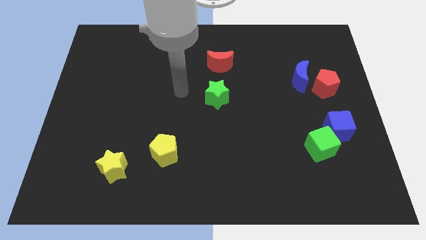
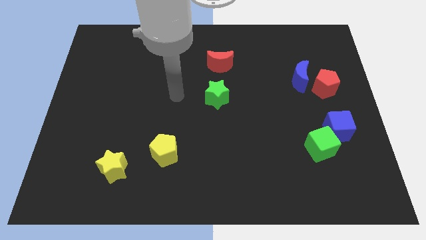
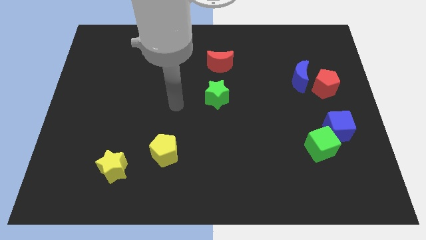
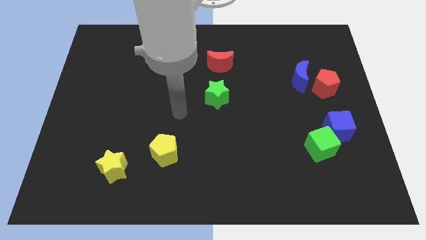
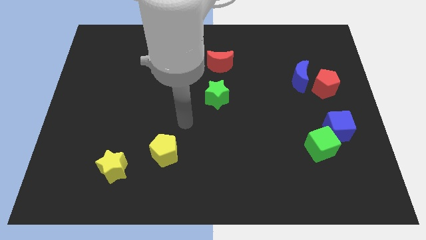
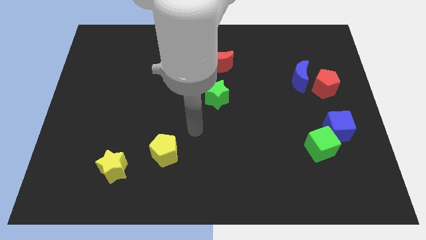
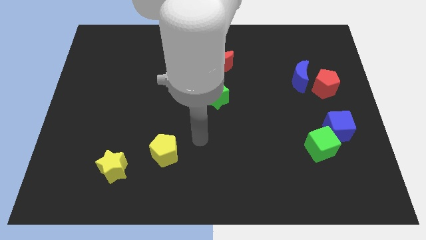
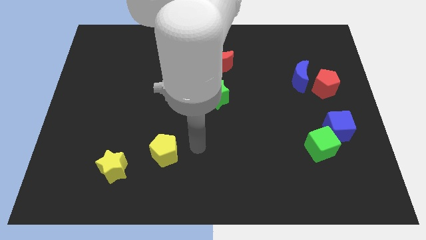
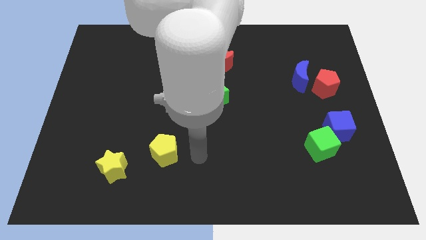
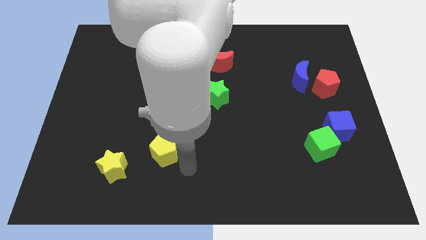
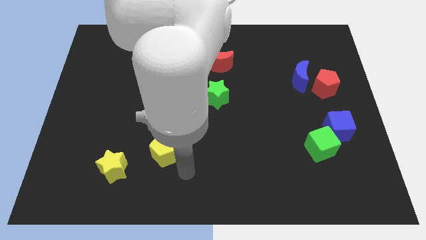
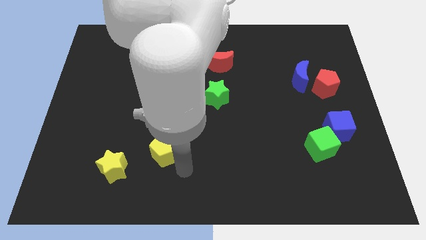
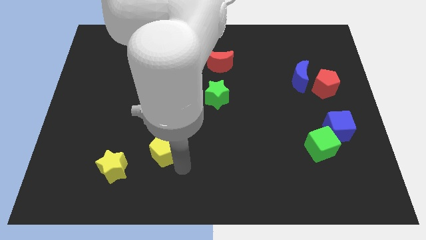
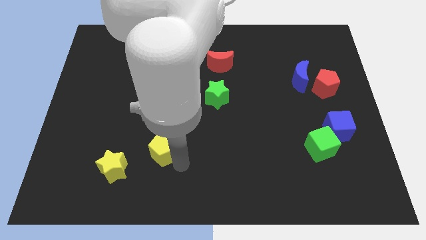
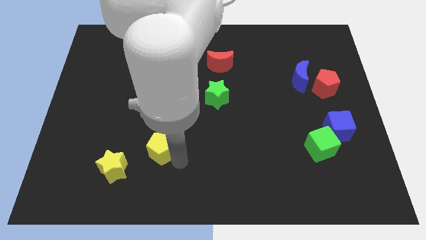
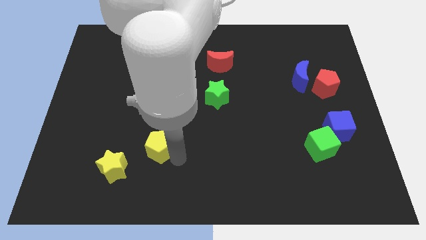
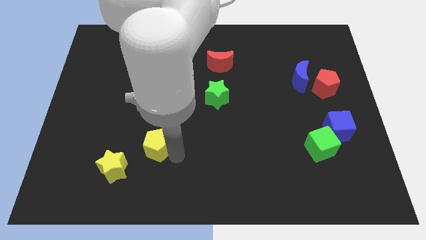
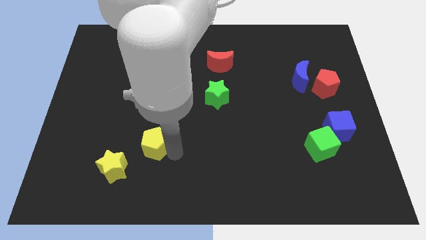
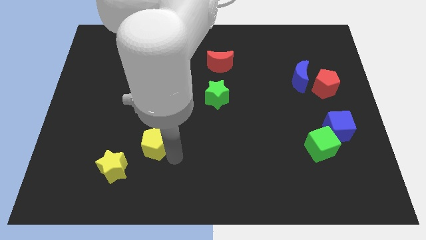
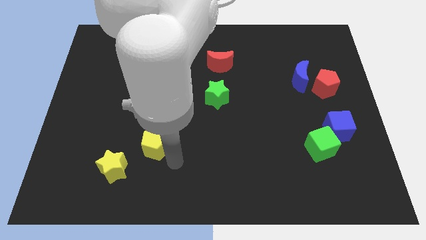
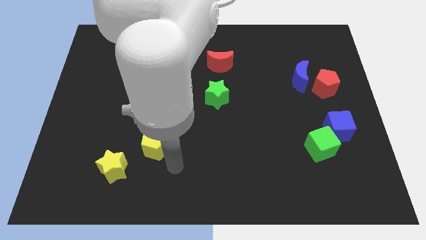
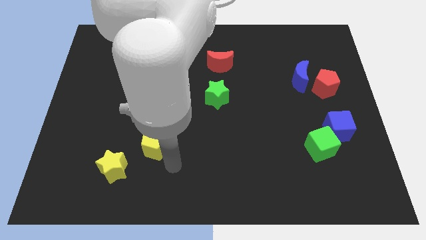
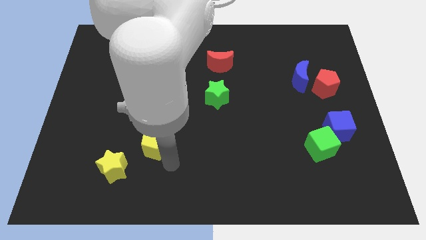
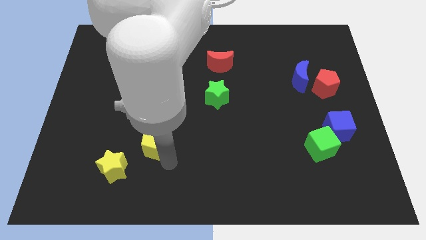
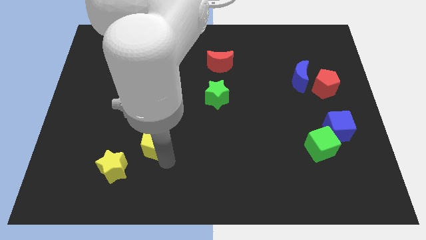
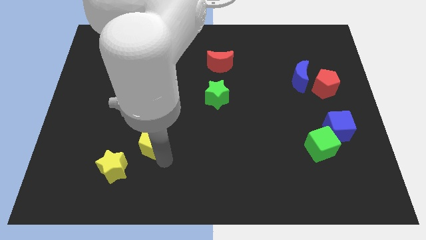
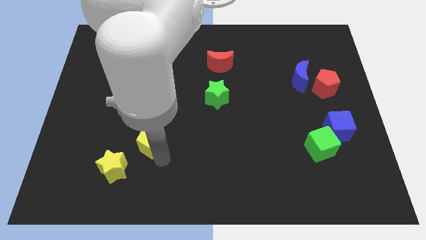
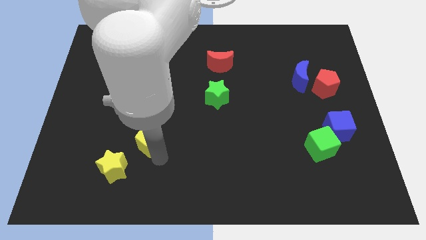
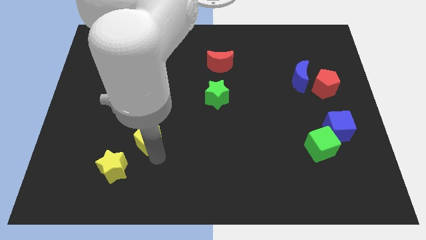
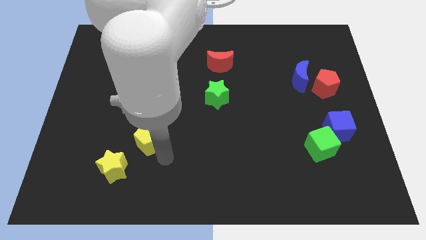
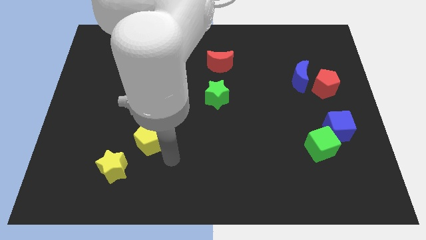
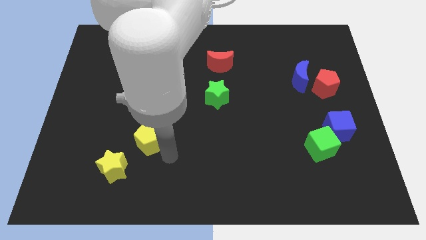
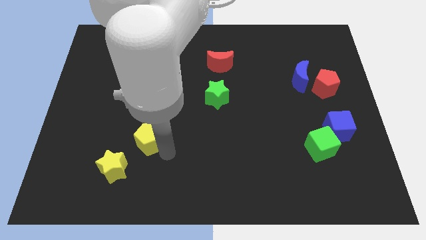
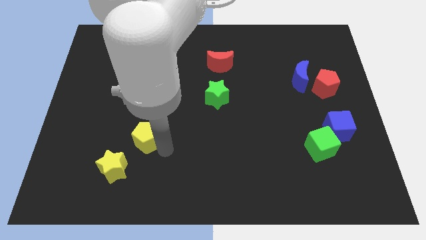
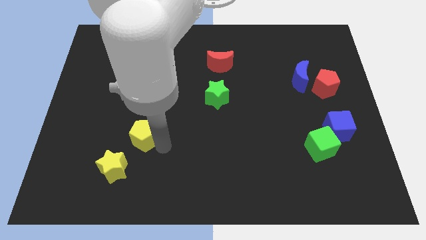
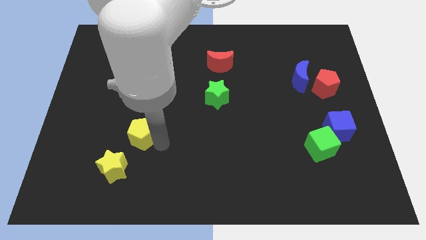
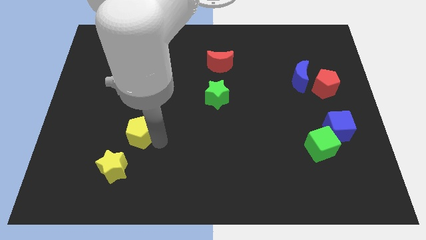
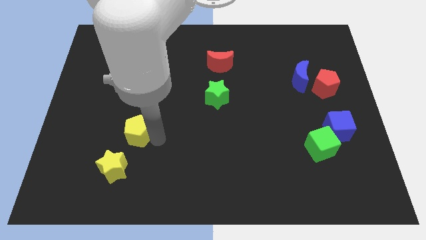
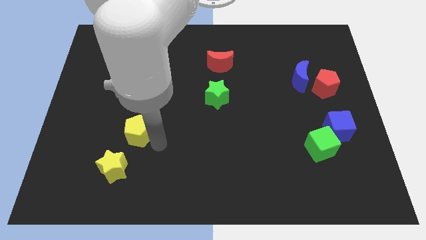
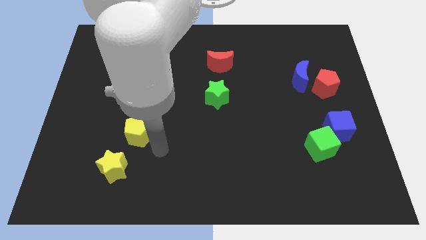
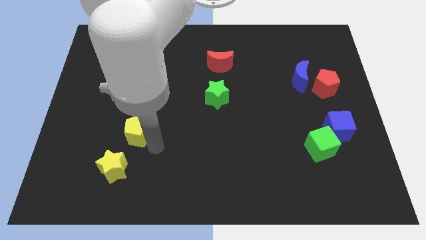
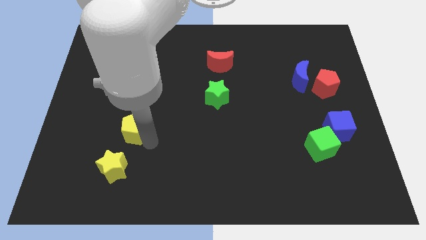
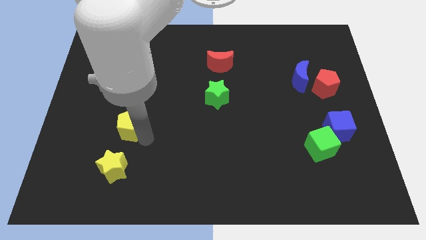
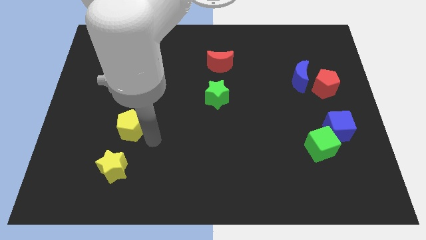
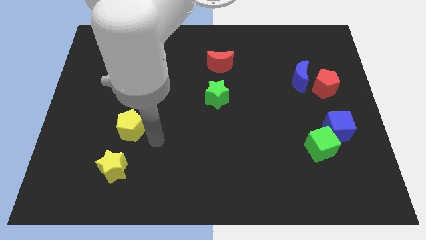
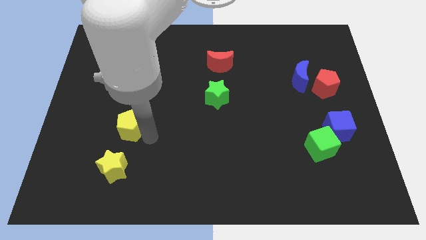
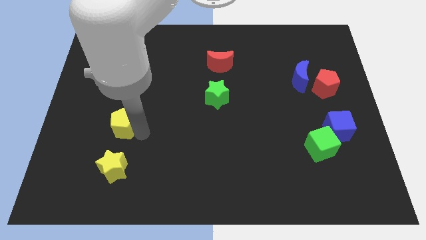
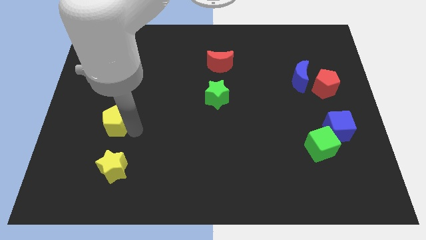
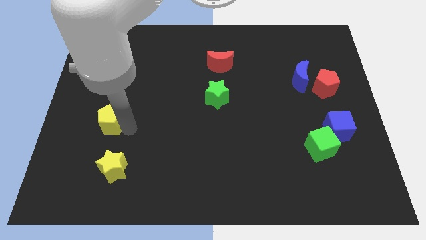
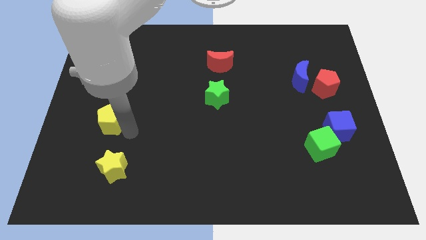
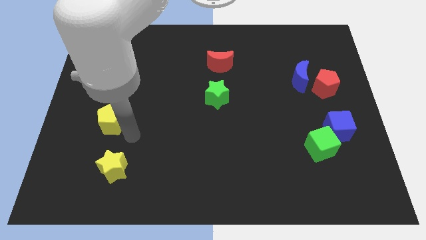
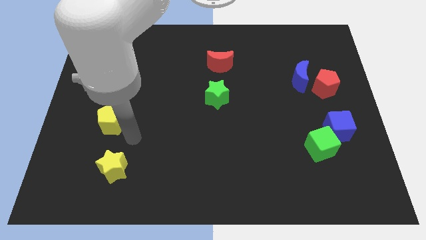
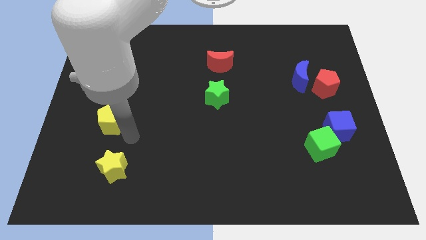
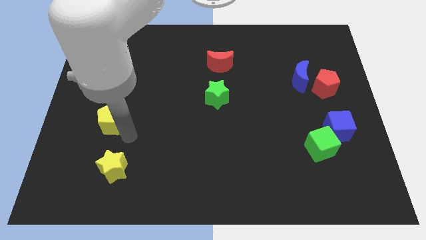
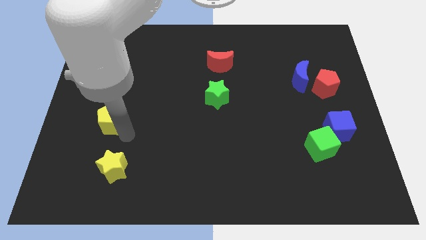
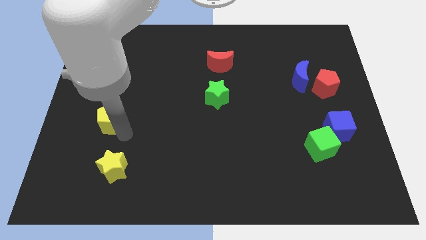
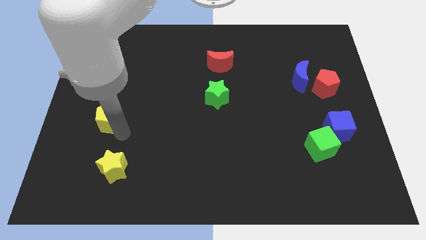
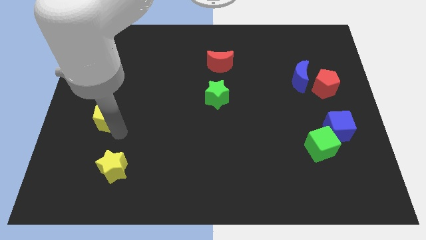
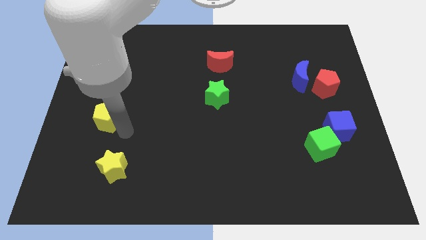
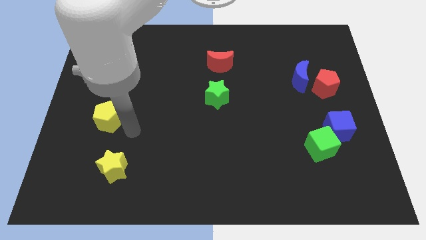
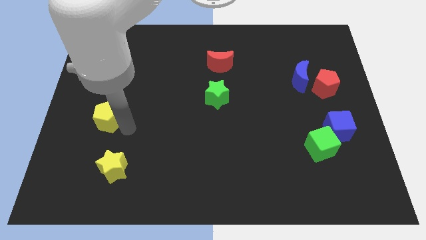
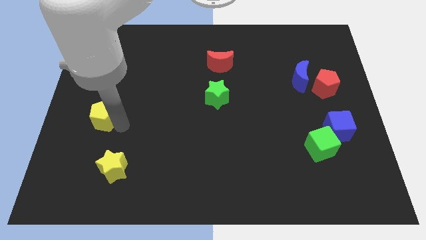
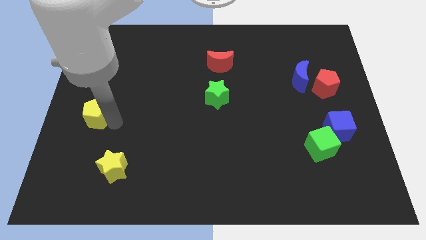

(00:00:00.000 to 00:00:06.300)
put the yellow pentagon to the left side
